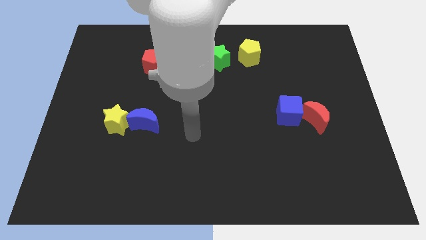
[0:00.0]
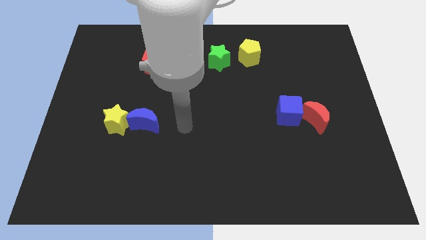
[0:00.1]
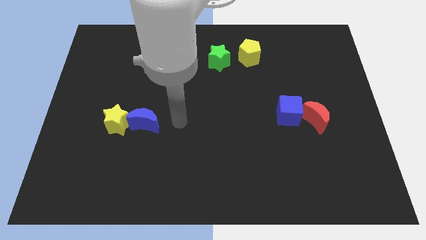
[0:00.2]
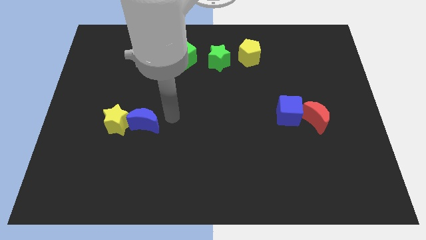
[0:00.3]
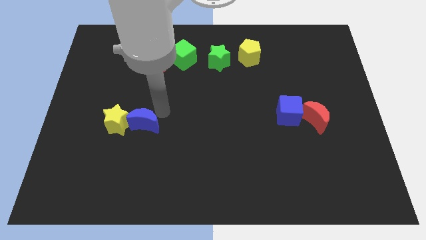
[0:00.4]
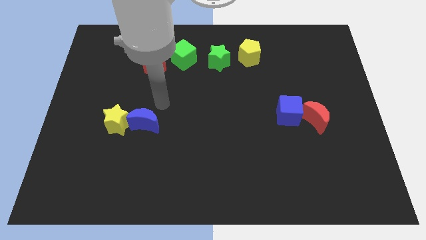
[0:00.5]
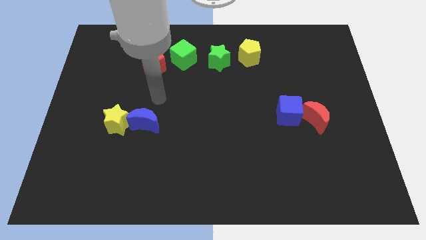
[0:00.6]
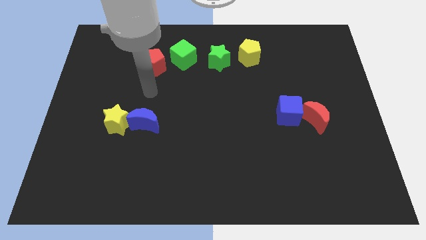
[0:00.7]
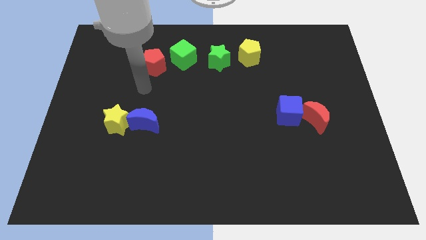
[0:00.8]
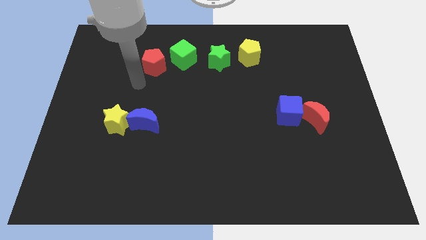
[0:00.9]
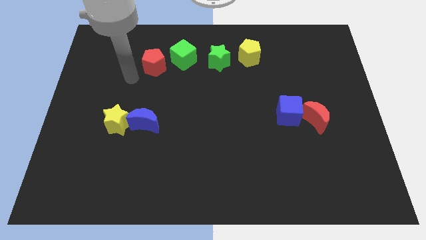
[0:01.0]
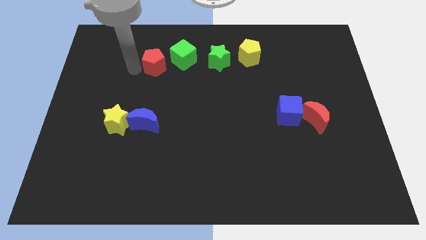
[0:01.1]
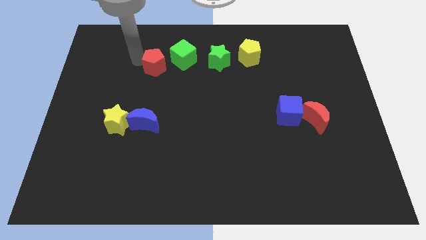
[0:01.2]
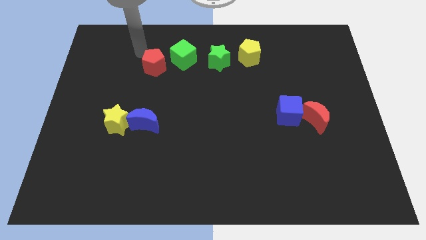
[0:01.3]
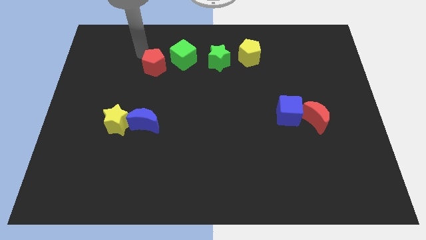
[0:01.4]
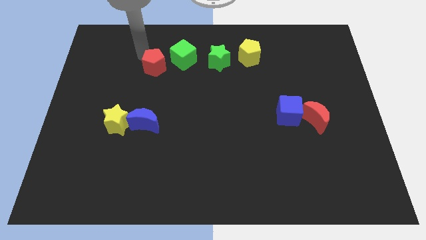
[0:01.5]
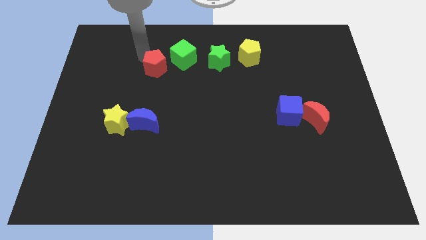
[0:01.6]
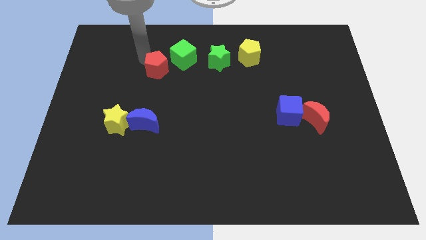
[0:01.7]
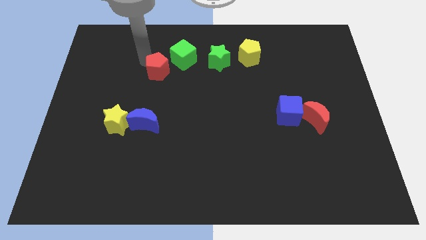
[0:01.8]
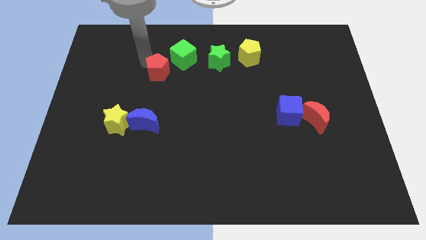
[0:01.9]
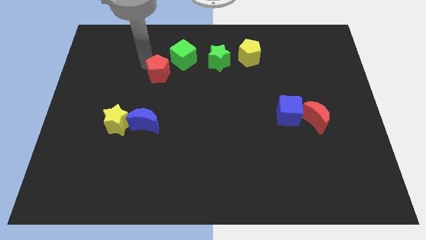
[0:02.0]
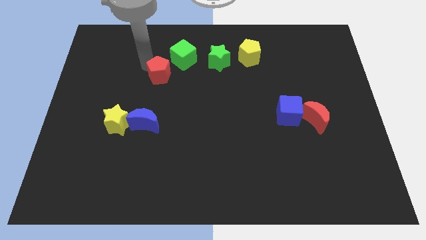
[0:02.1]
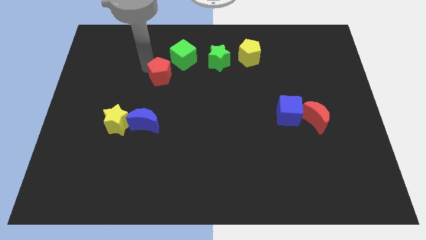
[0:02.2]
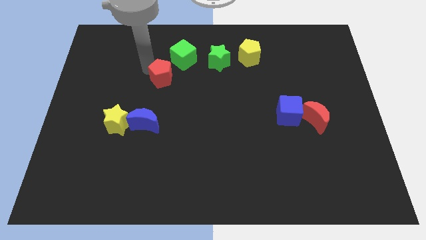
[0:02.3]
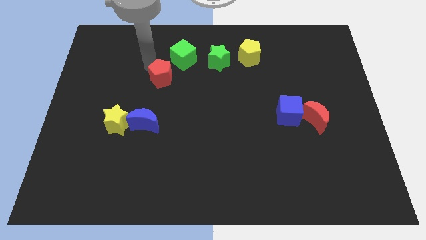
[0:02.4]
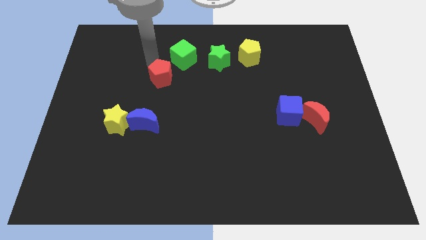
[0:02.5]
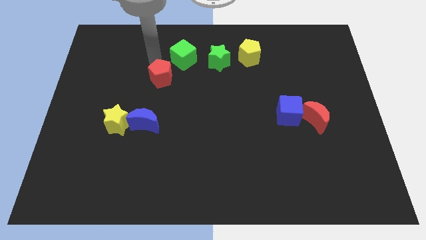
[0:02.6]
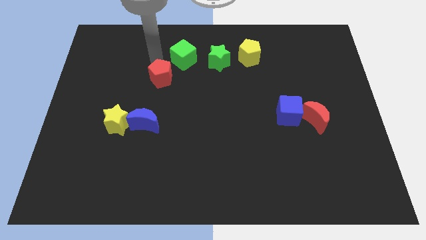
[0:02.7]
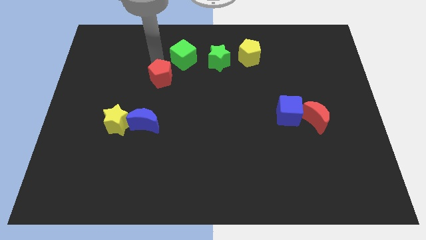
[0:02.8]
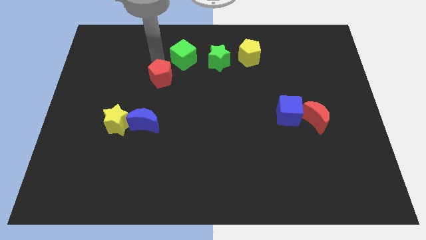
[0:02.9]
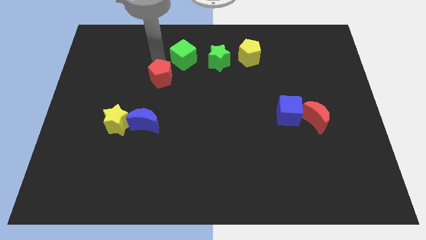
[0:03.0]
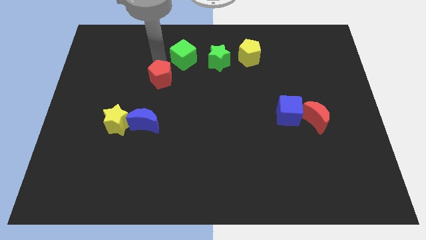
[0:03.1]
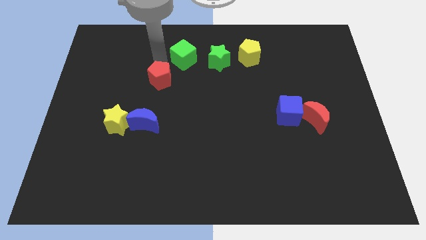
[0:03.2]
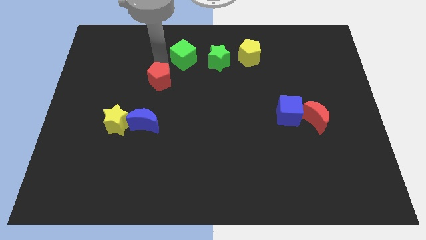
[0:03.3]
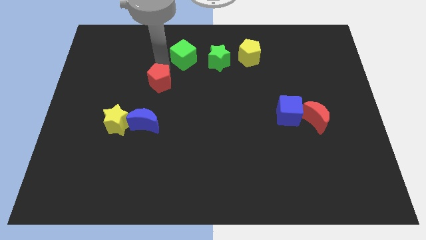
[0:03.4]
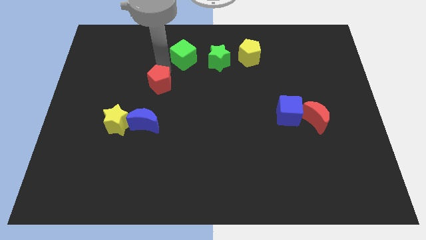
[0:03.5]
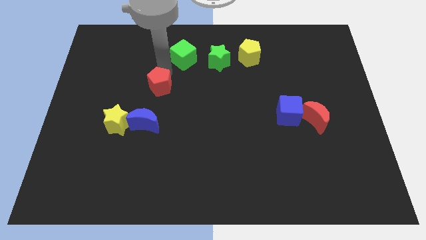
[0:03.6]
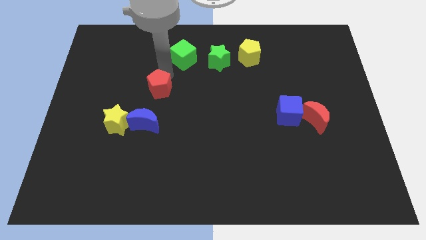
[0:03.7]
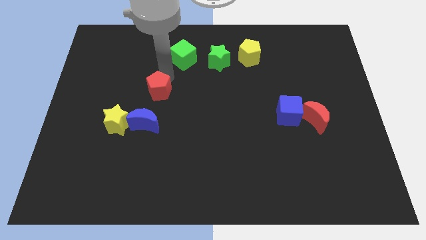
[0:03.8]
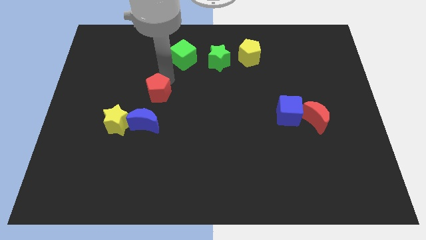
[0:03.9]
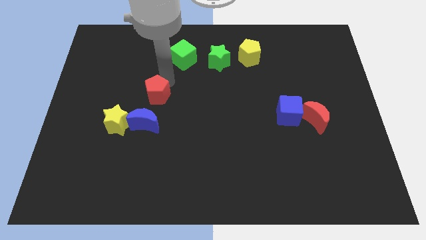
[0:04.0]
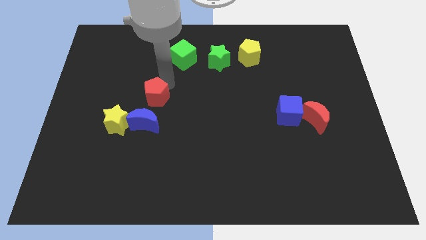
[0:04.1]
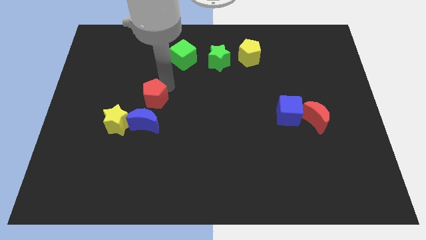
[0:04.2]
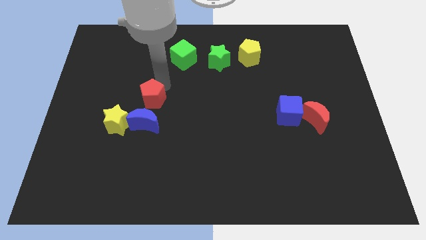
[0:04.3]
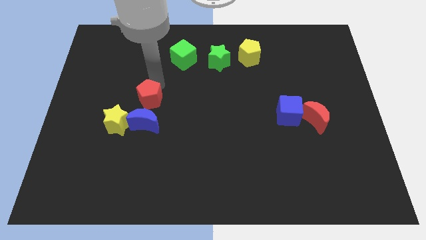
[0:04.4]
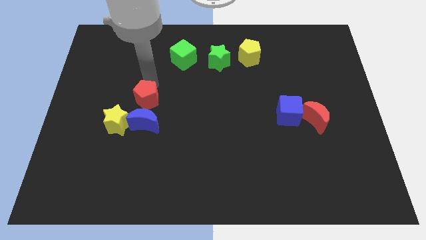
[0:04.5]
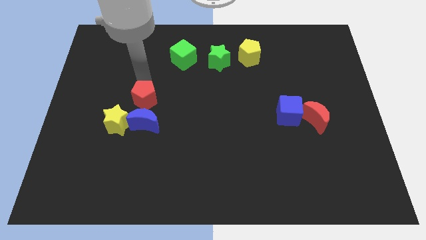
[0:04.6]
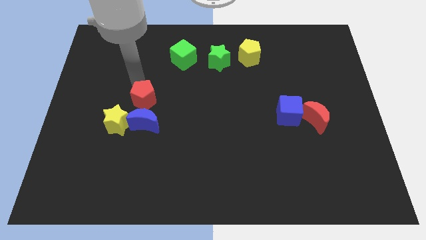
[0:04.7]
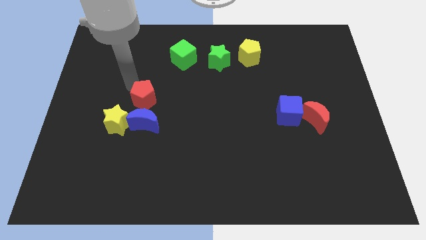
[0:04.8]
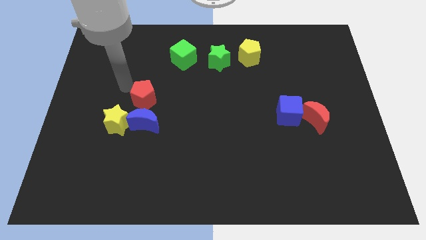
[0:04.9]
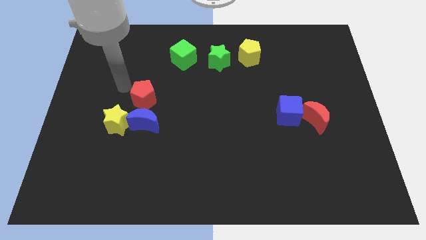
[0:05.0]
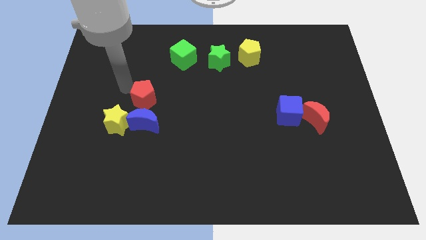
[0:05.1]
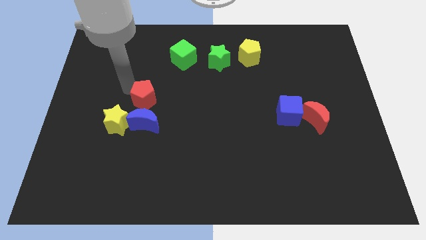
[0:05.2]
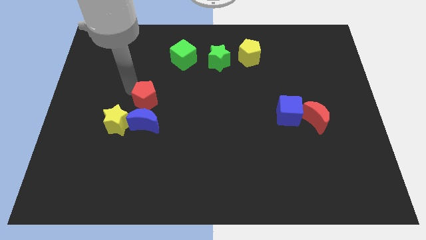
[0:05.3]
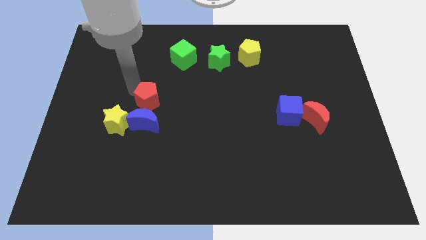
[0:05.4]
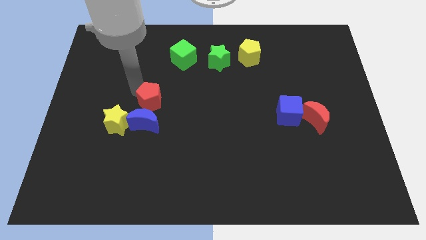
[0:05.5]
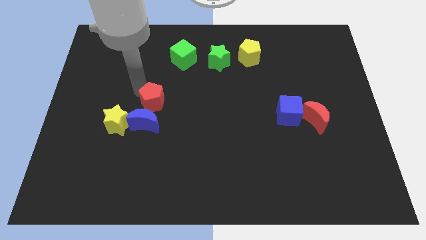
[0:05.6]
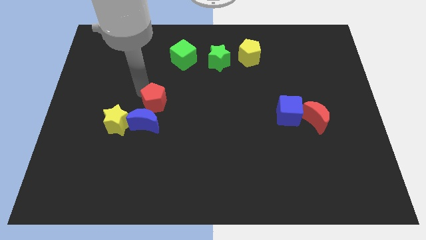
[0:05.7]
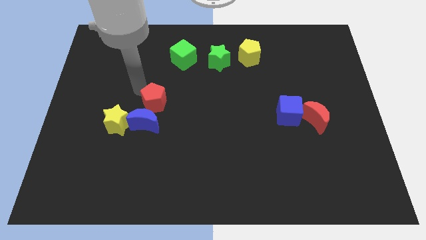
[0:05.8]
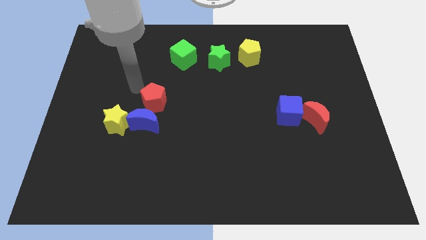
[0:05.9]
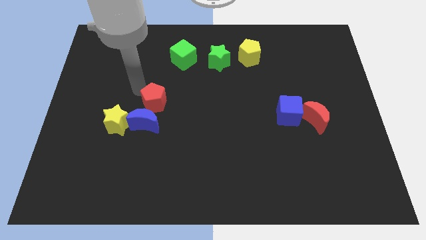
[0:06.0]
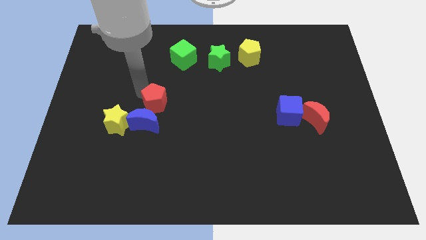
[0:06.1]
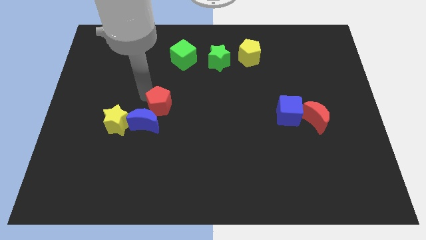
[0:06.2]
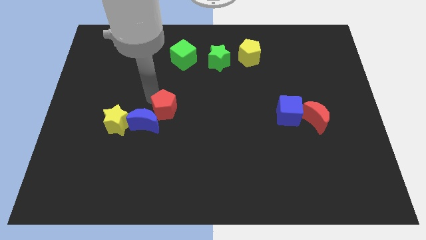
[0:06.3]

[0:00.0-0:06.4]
move the red pentagon right of the yellow star

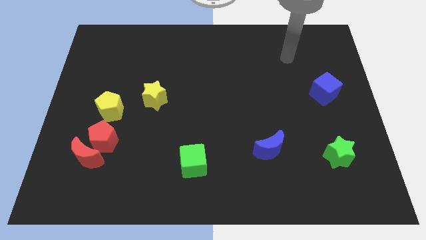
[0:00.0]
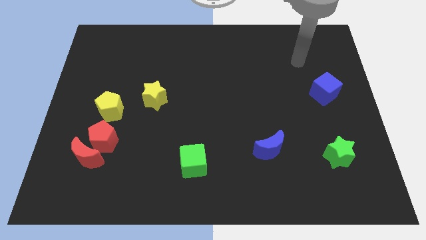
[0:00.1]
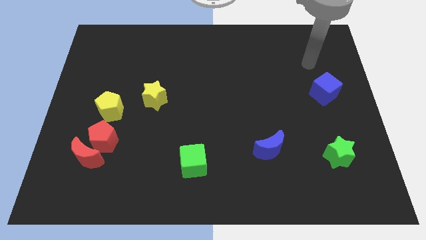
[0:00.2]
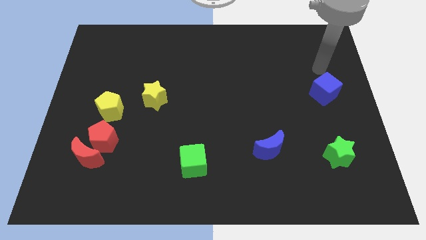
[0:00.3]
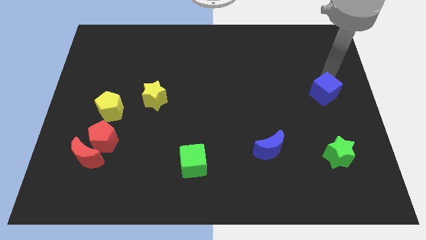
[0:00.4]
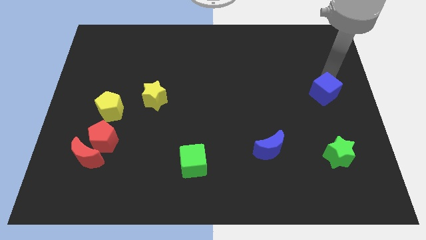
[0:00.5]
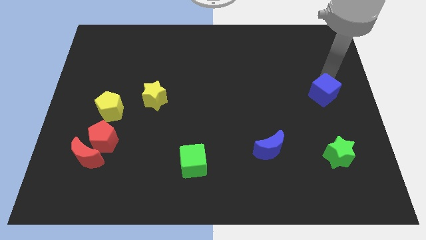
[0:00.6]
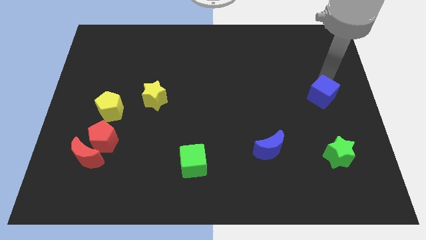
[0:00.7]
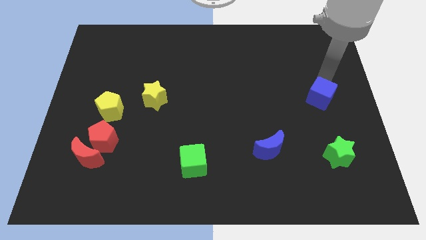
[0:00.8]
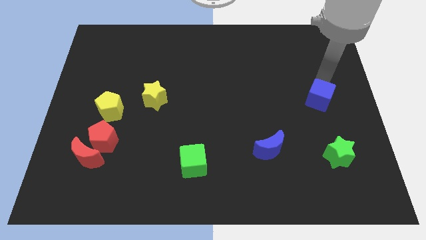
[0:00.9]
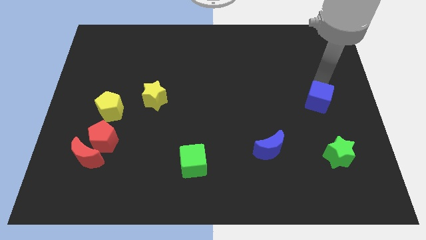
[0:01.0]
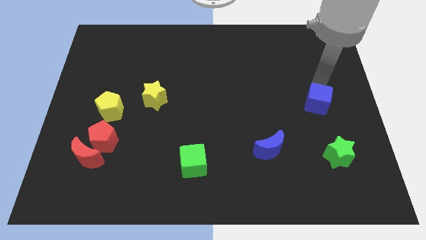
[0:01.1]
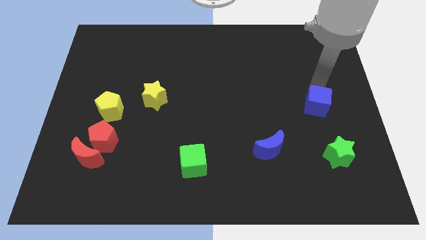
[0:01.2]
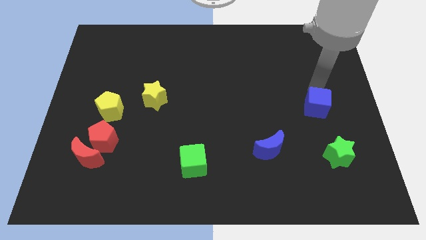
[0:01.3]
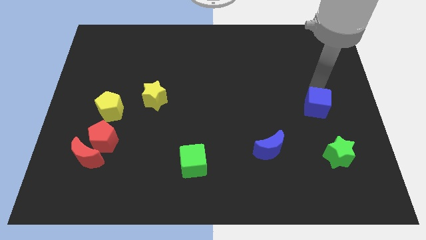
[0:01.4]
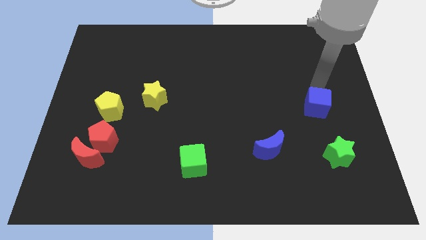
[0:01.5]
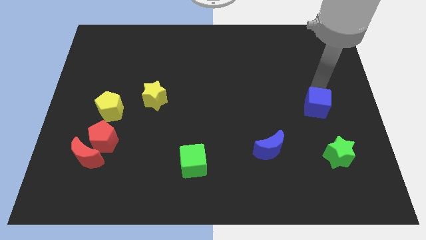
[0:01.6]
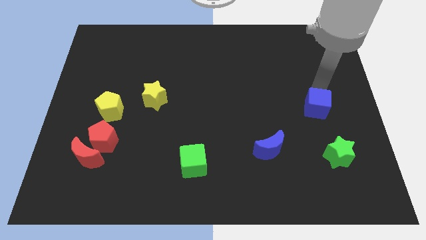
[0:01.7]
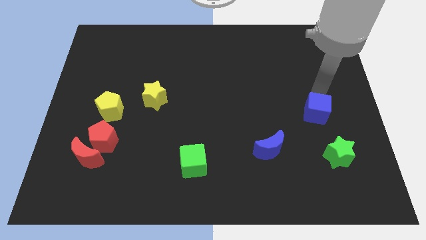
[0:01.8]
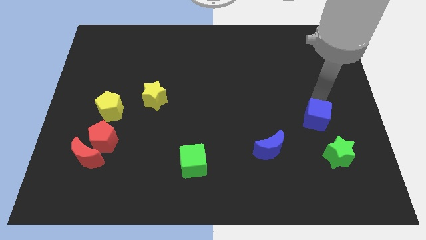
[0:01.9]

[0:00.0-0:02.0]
move the blue cube to the top left side of the green star
